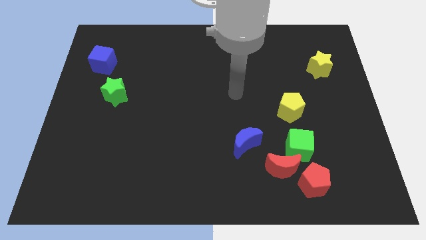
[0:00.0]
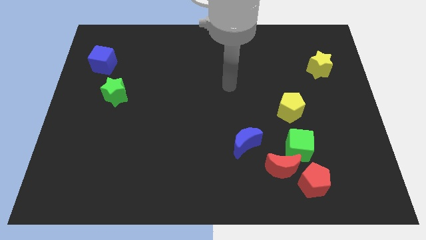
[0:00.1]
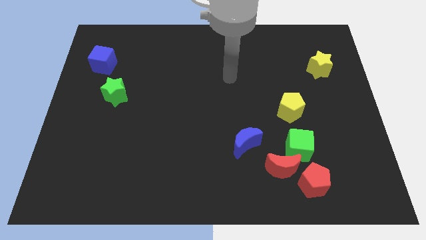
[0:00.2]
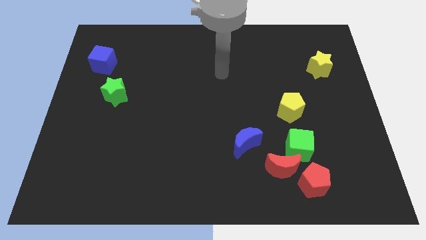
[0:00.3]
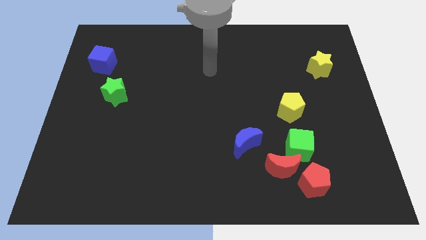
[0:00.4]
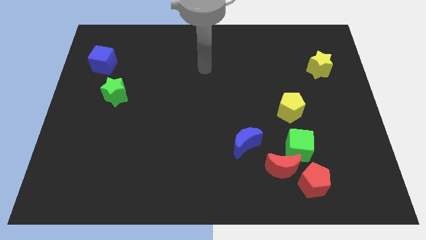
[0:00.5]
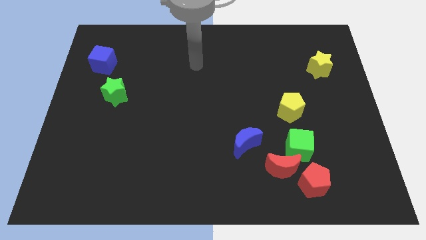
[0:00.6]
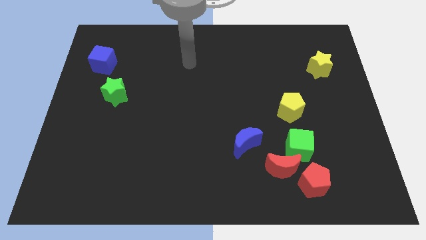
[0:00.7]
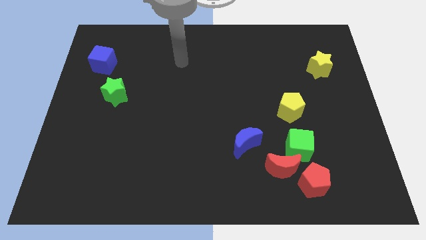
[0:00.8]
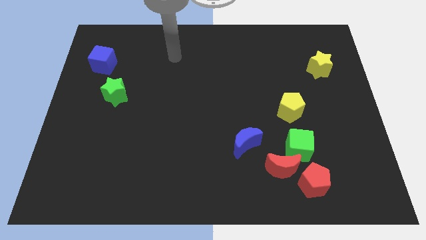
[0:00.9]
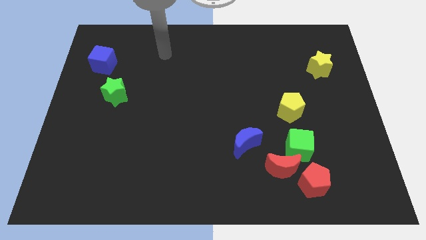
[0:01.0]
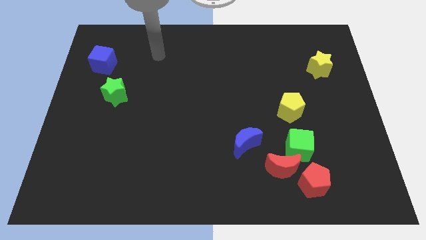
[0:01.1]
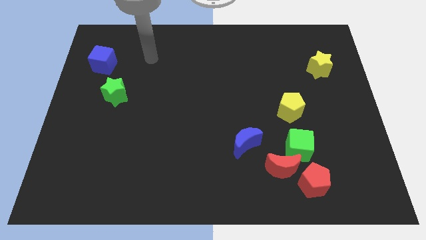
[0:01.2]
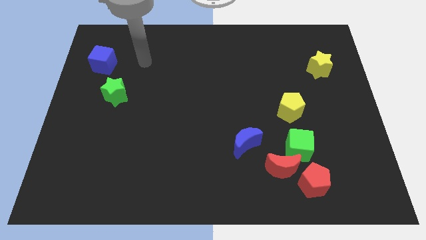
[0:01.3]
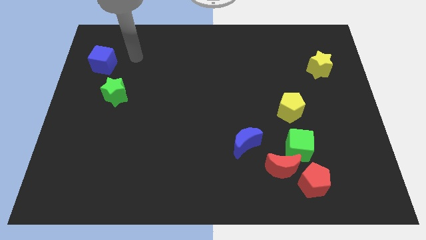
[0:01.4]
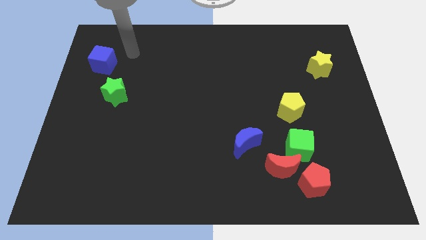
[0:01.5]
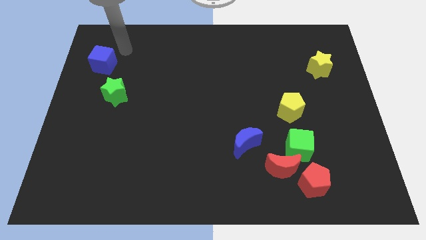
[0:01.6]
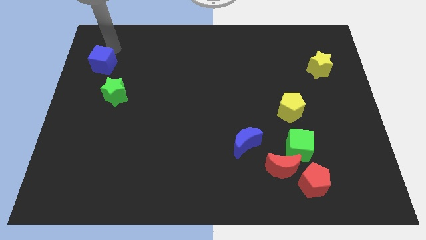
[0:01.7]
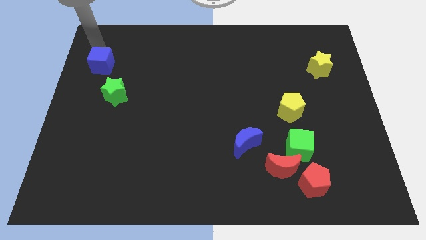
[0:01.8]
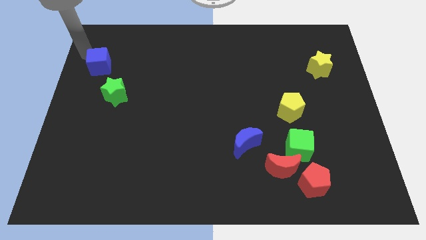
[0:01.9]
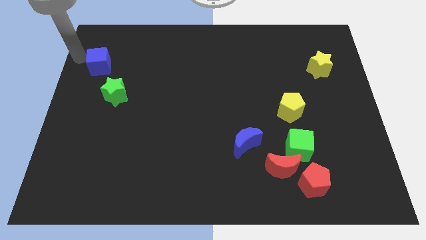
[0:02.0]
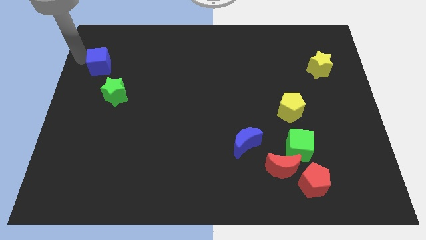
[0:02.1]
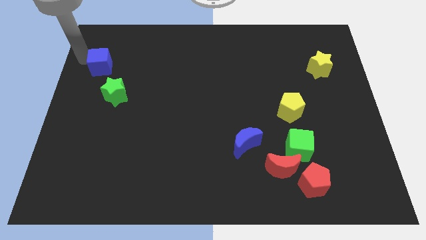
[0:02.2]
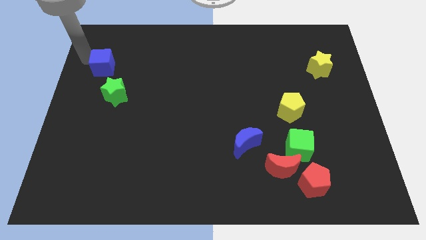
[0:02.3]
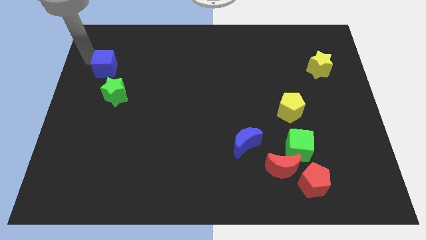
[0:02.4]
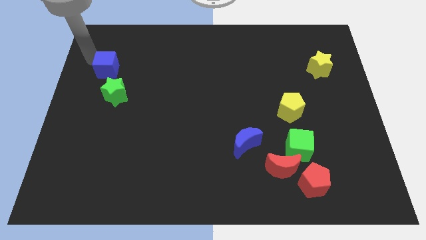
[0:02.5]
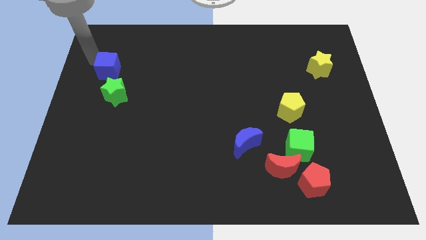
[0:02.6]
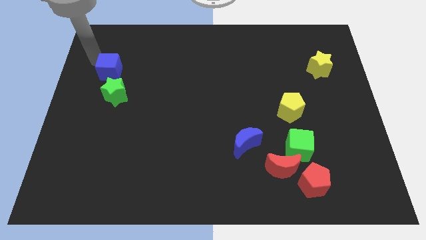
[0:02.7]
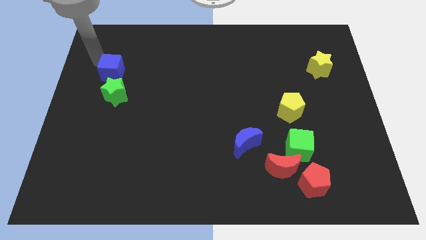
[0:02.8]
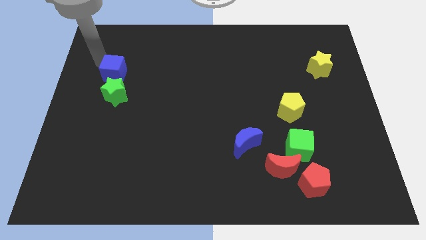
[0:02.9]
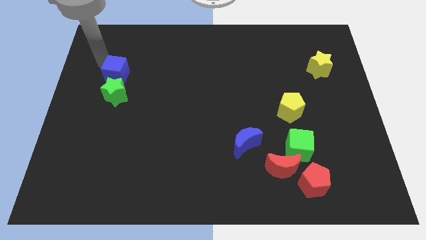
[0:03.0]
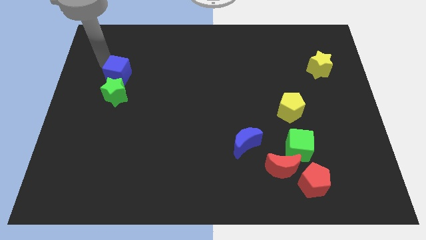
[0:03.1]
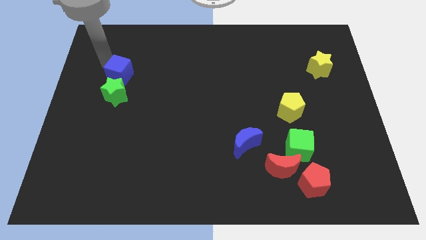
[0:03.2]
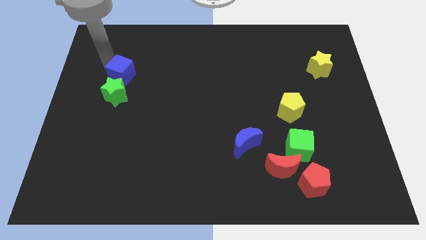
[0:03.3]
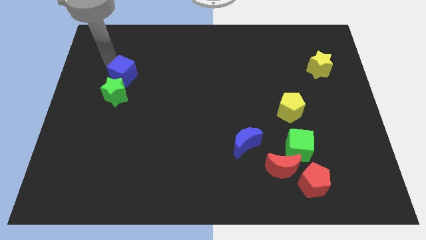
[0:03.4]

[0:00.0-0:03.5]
move the blue cube downwards and then right a little

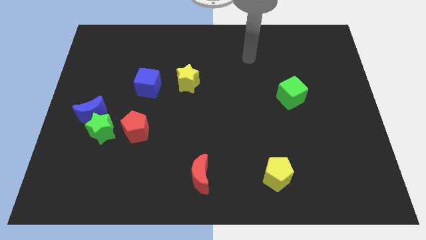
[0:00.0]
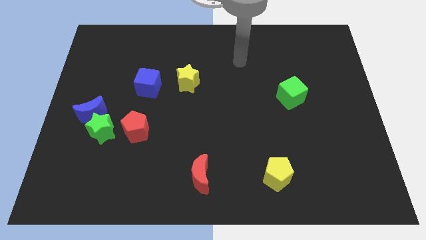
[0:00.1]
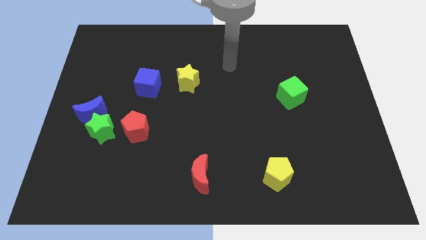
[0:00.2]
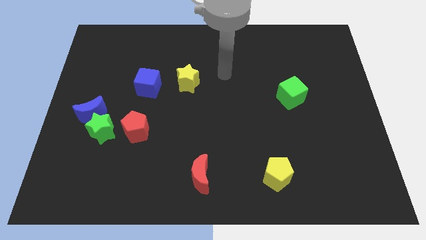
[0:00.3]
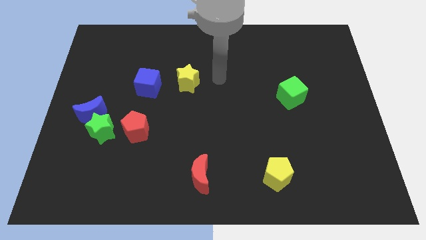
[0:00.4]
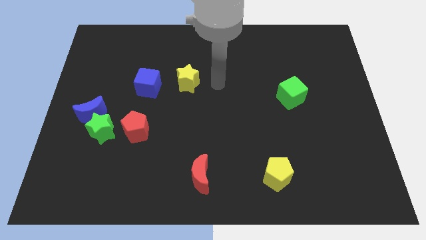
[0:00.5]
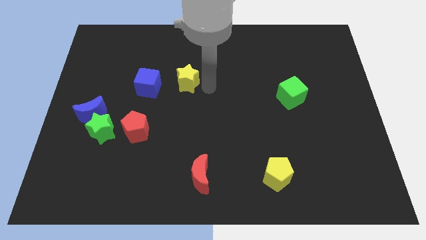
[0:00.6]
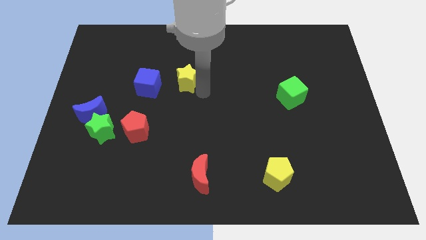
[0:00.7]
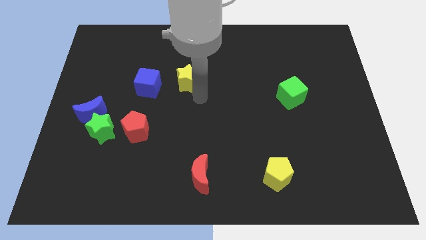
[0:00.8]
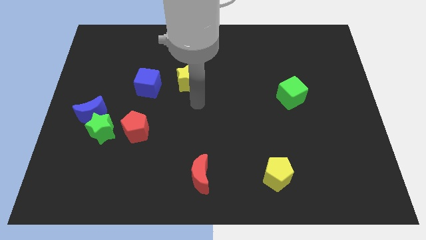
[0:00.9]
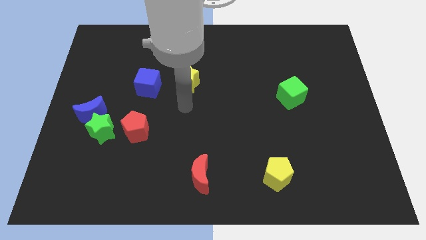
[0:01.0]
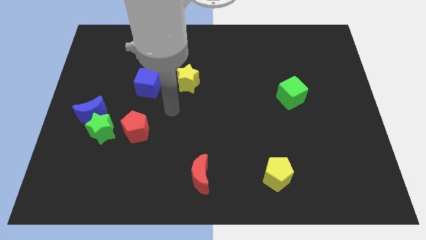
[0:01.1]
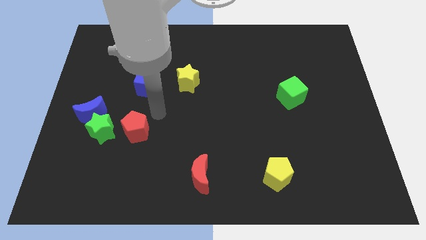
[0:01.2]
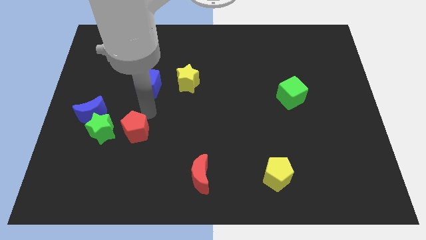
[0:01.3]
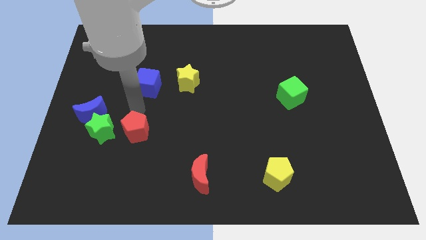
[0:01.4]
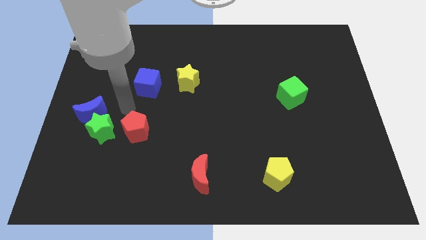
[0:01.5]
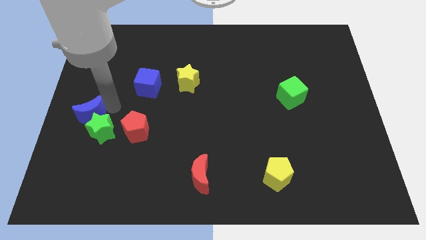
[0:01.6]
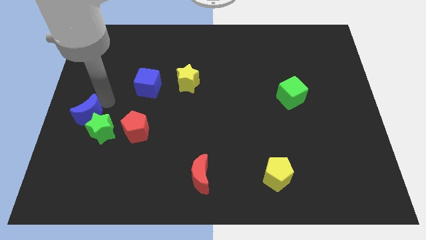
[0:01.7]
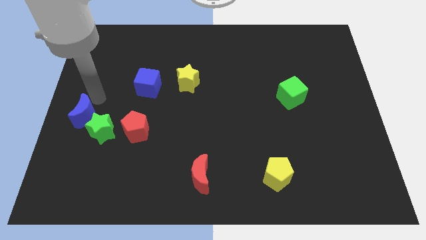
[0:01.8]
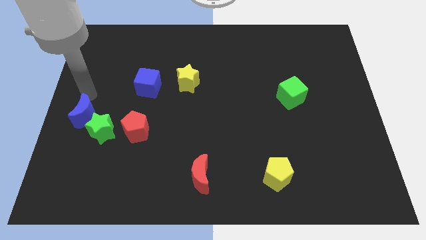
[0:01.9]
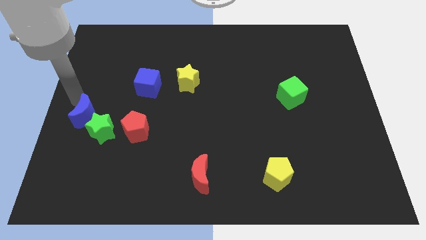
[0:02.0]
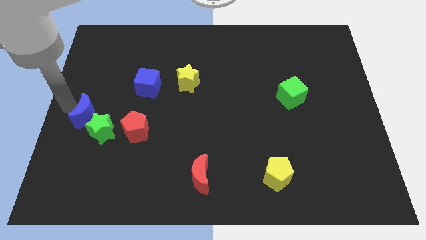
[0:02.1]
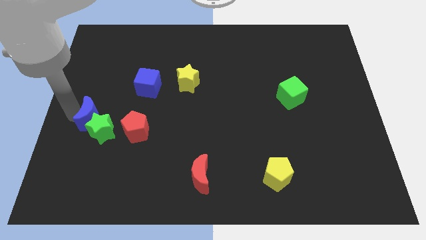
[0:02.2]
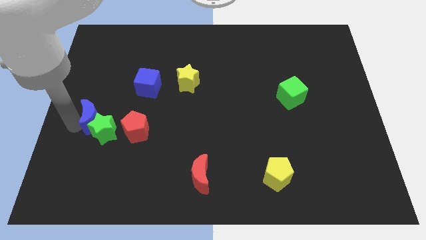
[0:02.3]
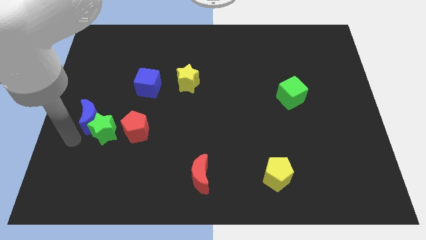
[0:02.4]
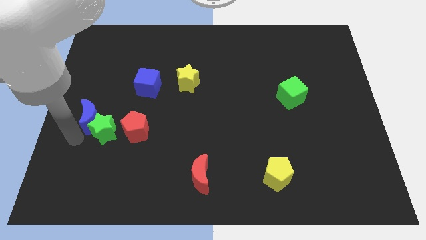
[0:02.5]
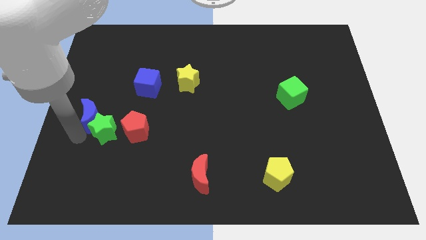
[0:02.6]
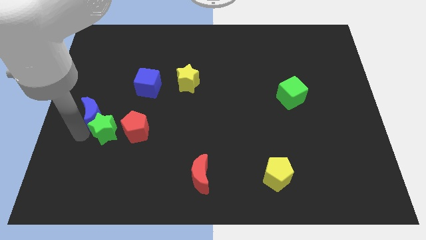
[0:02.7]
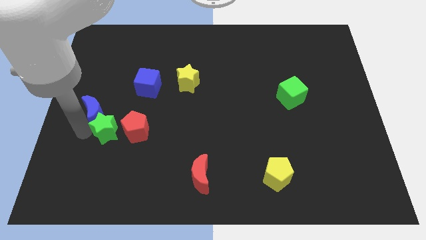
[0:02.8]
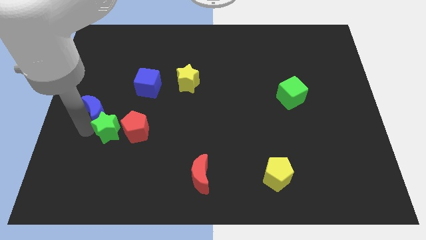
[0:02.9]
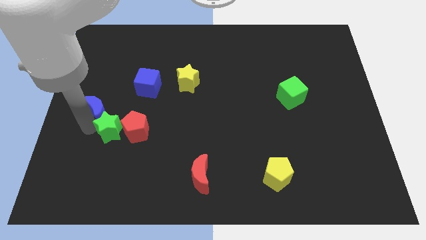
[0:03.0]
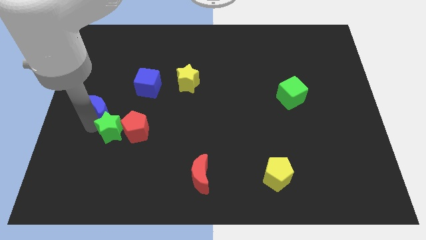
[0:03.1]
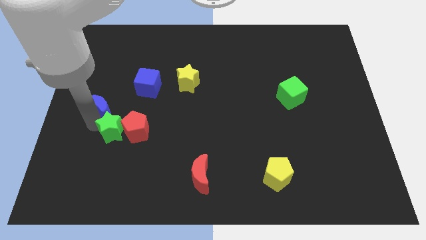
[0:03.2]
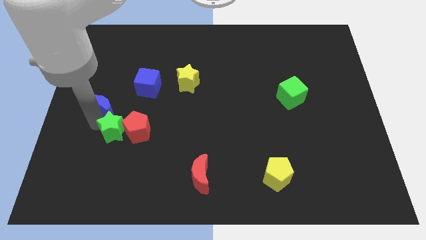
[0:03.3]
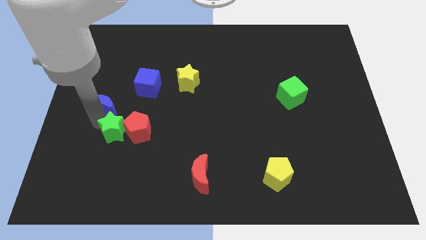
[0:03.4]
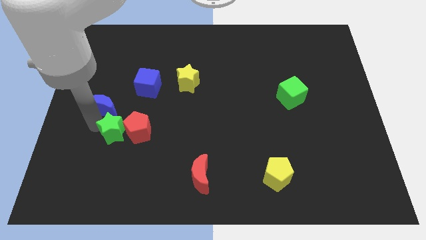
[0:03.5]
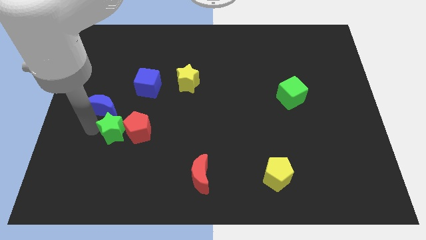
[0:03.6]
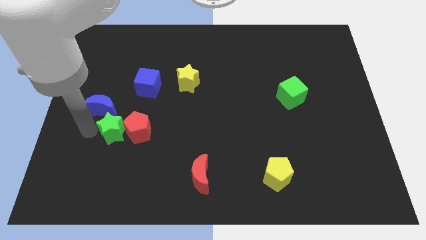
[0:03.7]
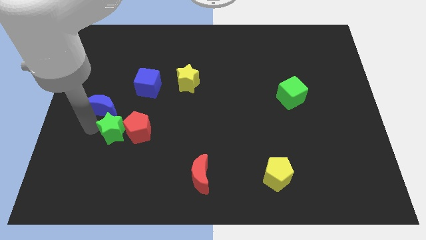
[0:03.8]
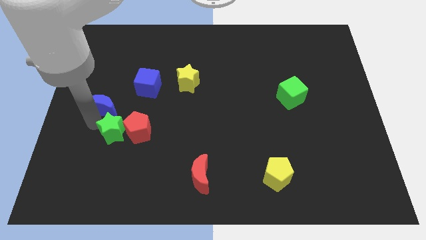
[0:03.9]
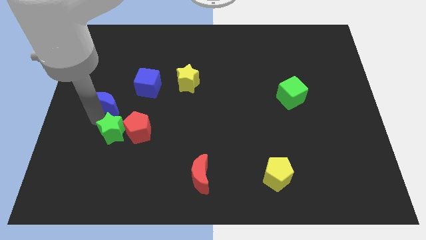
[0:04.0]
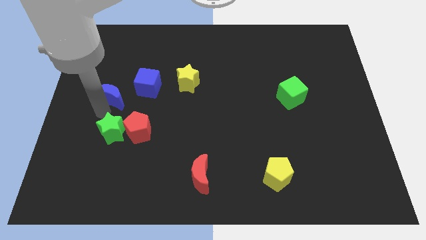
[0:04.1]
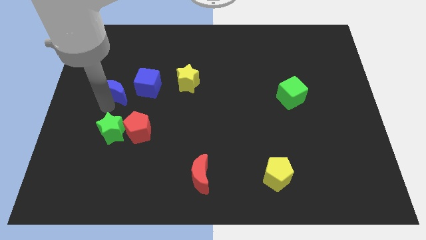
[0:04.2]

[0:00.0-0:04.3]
slightly move the blue moon upwards and right diagonally

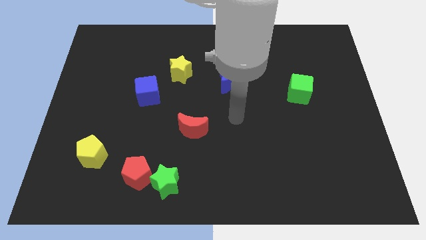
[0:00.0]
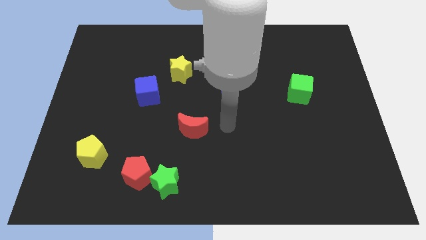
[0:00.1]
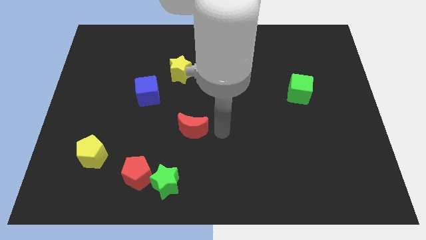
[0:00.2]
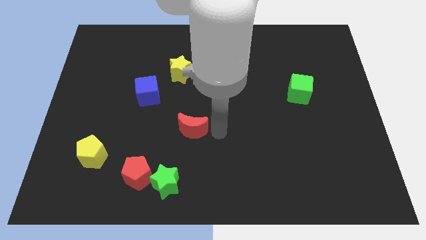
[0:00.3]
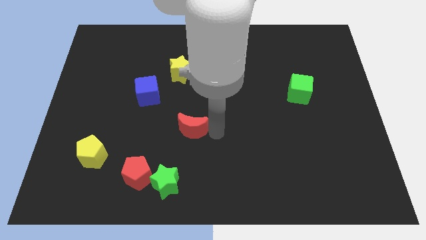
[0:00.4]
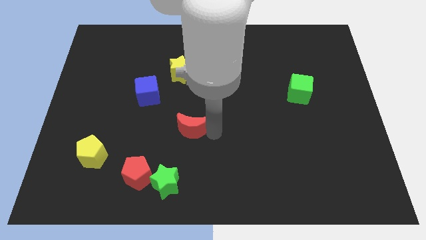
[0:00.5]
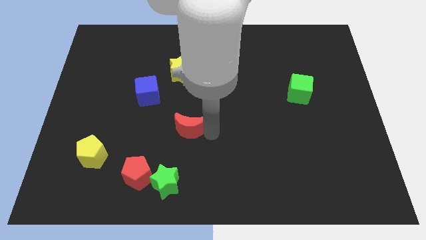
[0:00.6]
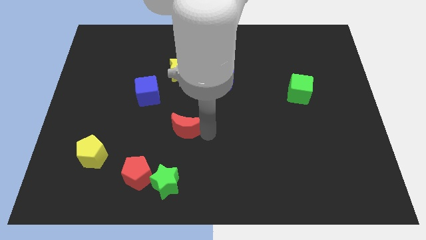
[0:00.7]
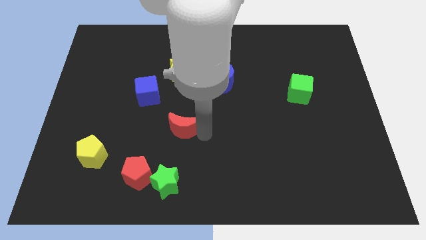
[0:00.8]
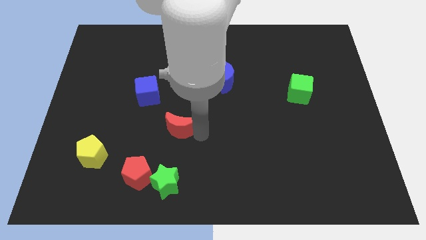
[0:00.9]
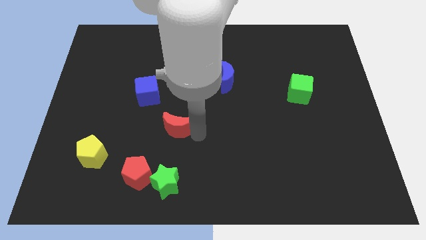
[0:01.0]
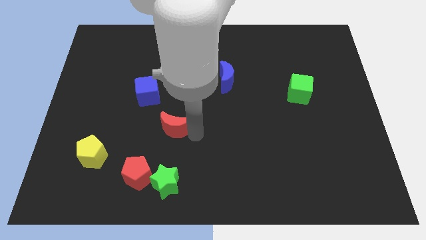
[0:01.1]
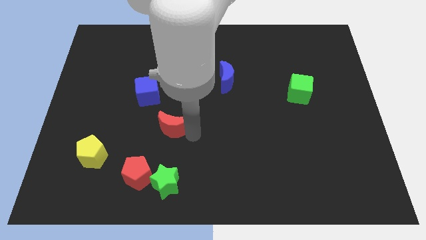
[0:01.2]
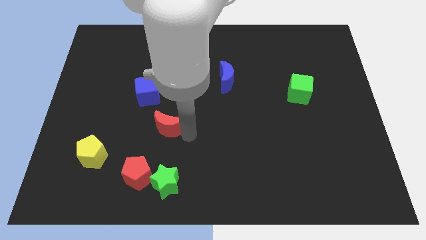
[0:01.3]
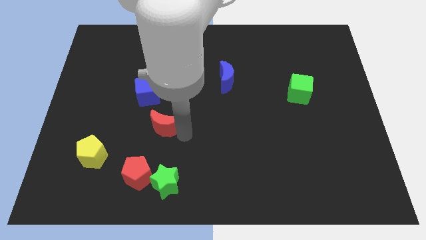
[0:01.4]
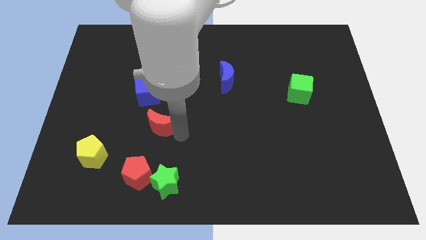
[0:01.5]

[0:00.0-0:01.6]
slide the red moon left slightly
